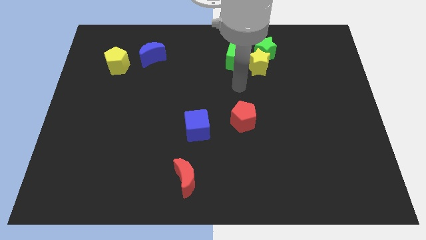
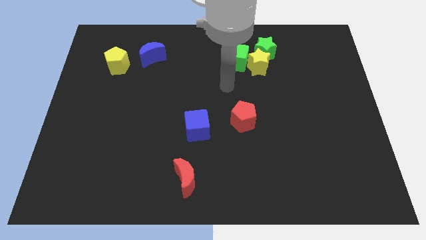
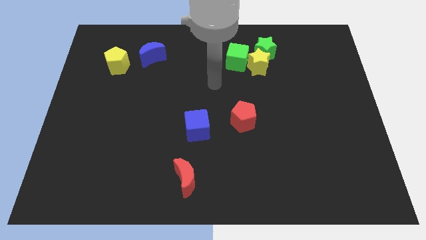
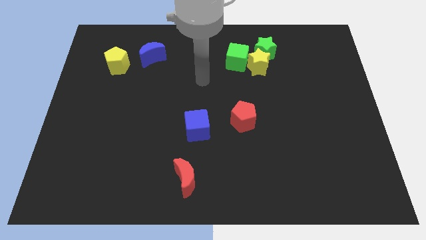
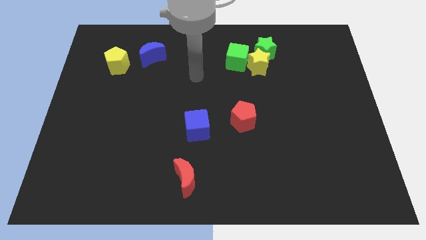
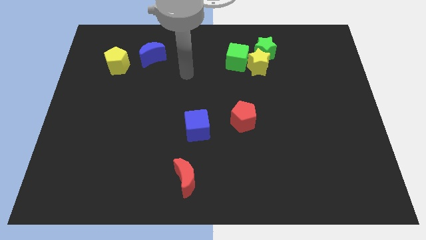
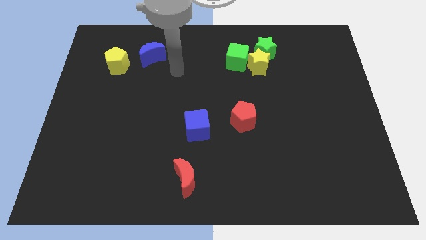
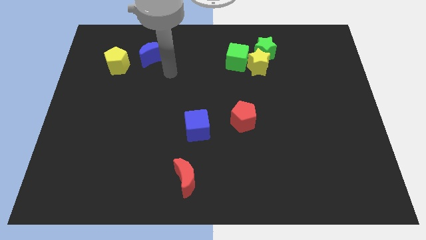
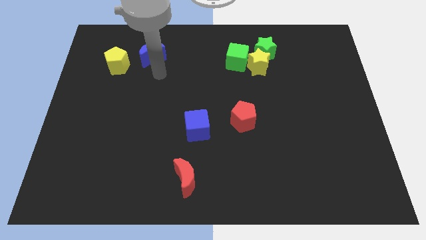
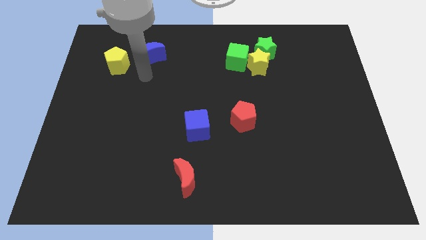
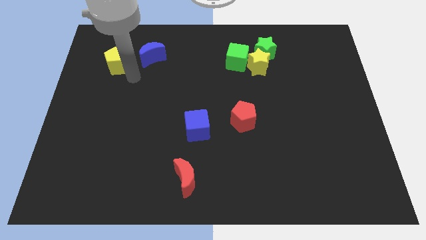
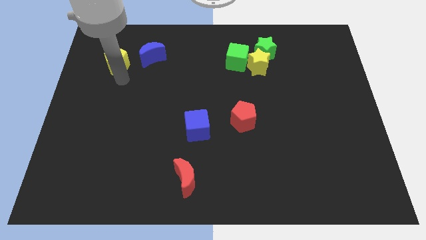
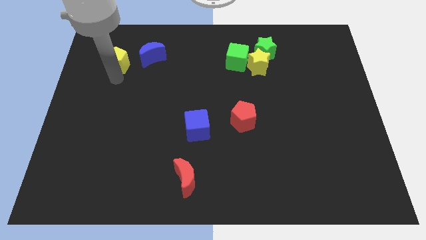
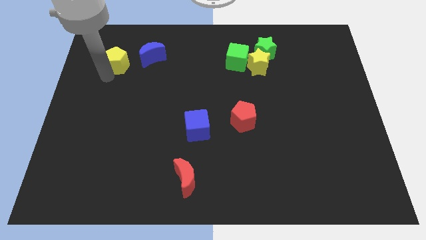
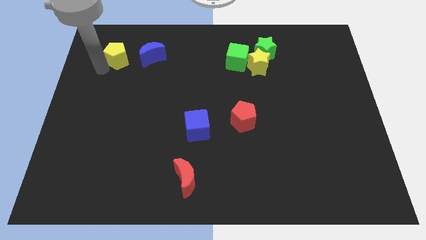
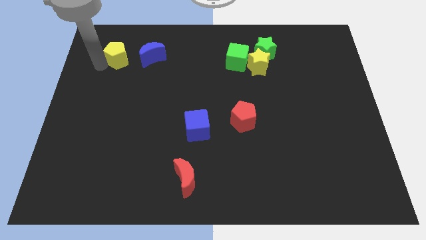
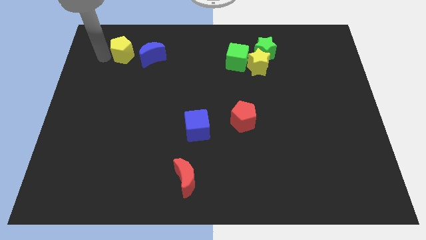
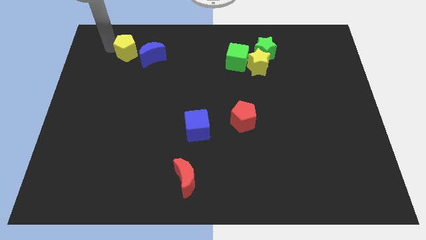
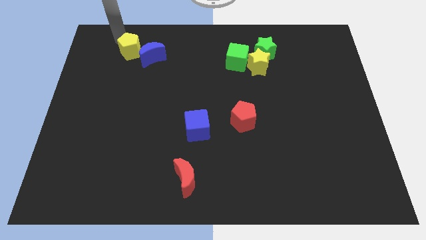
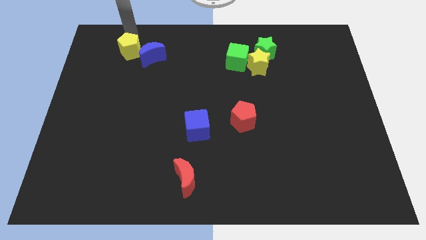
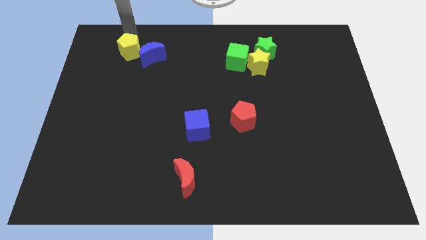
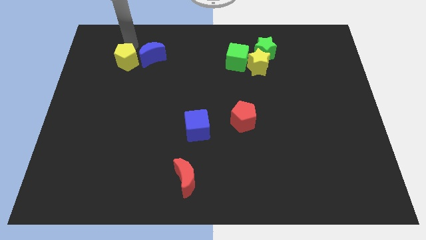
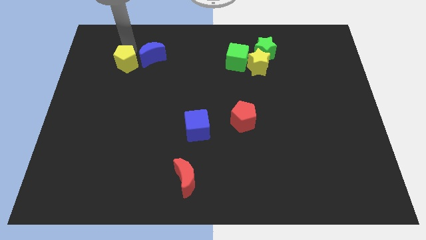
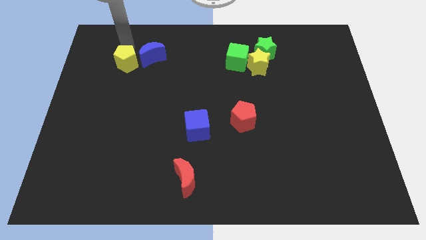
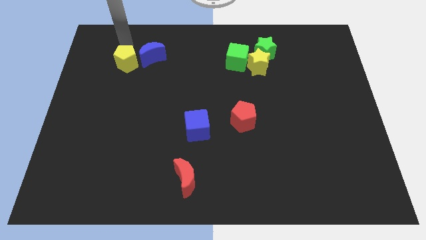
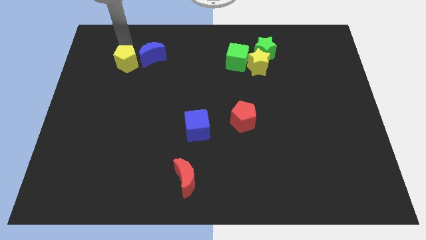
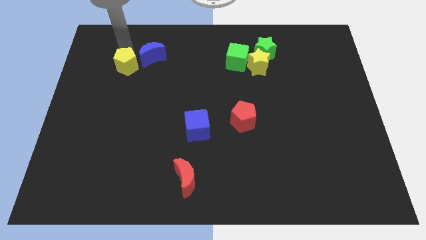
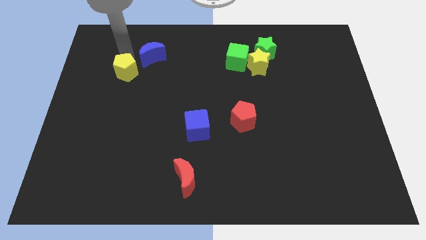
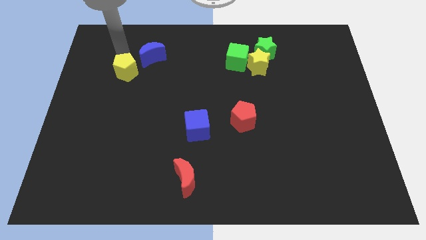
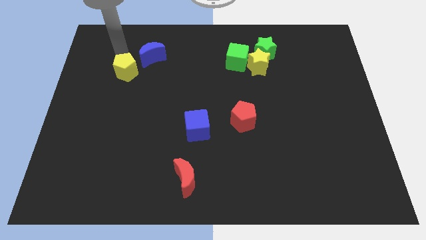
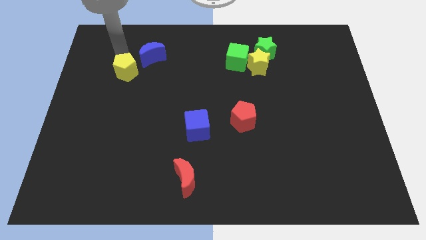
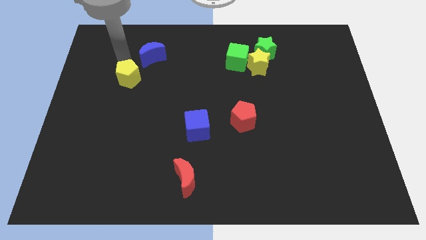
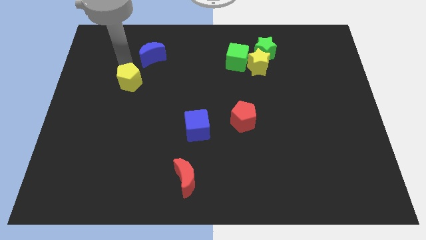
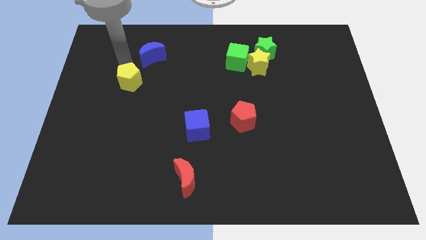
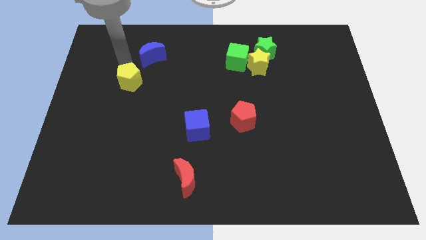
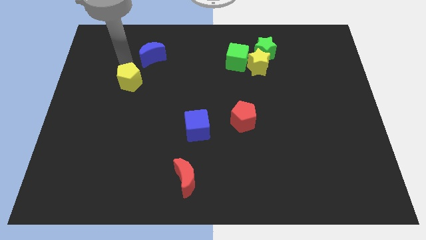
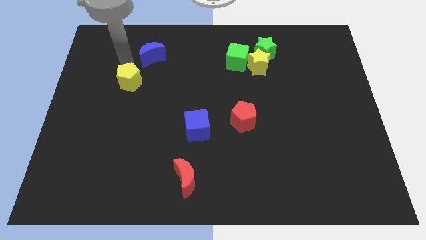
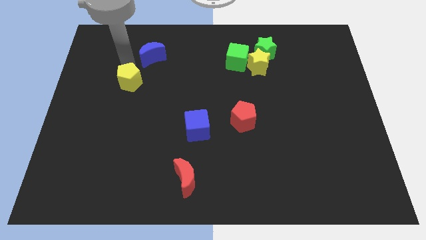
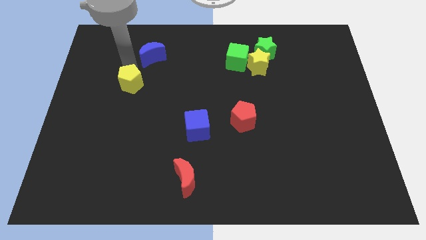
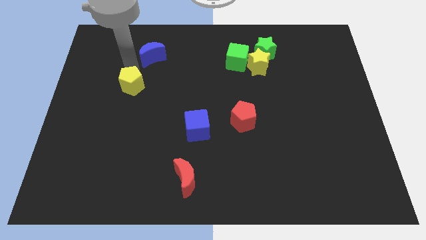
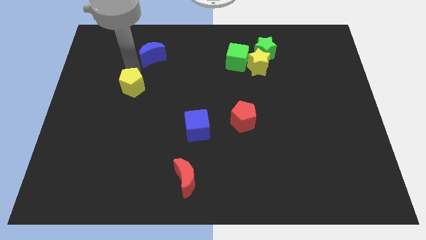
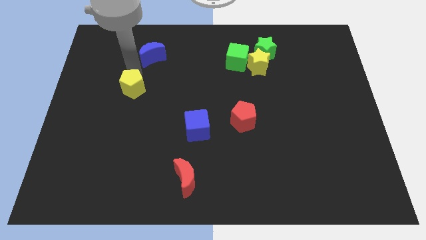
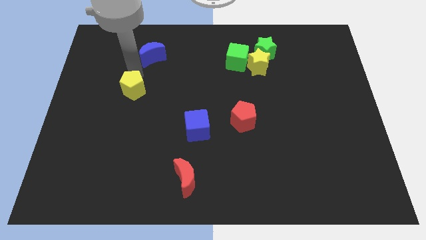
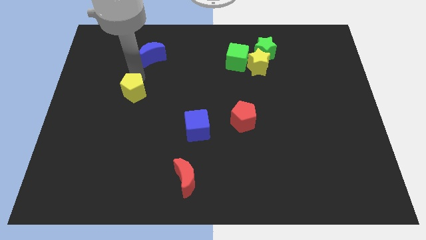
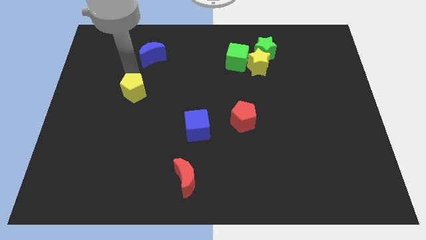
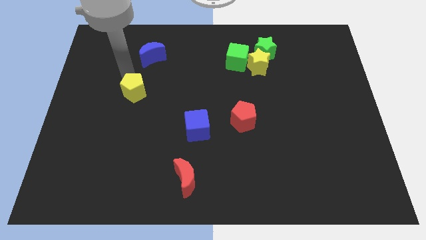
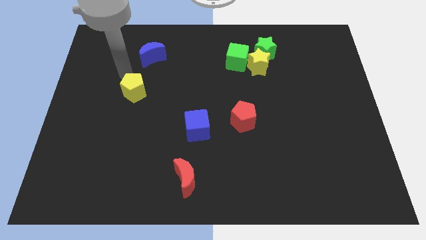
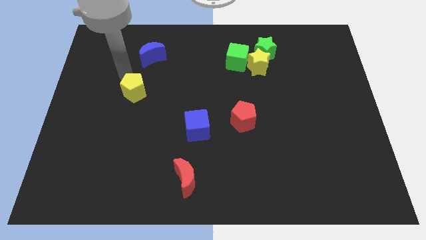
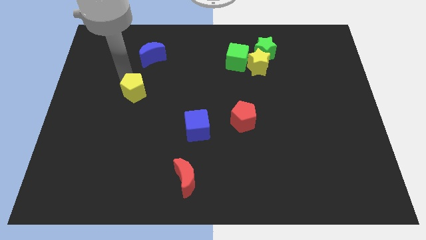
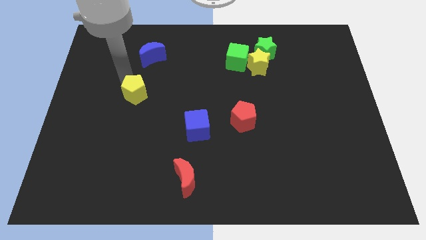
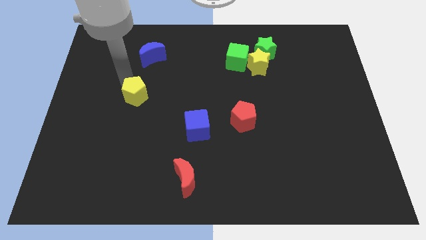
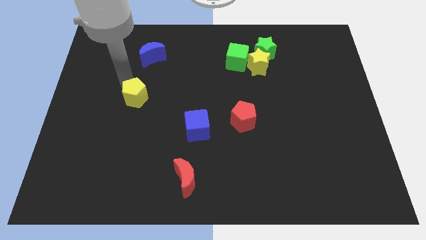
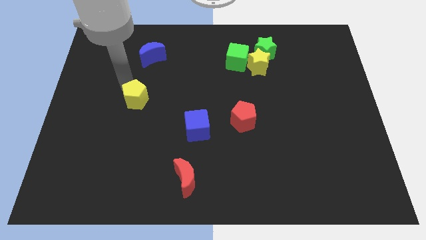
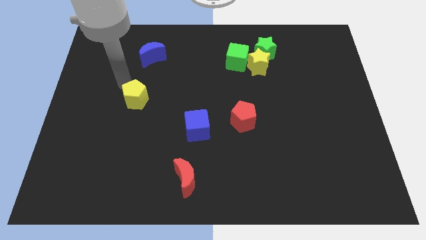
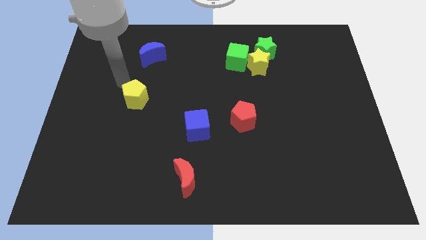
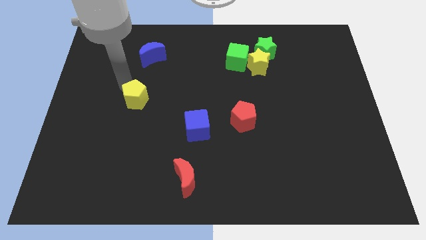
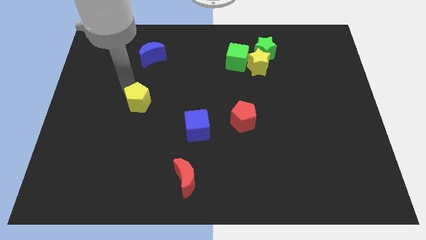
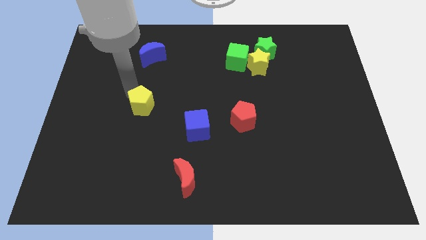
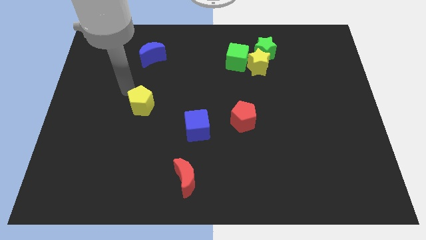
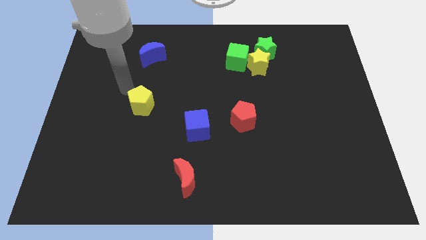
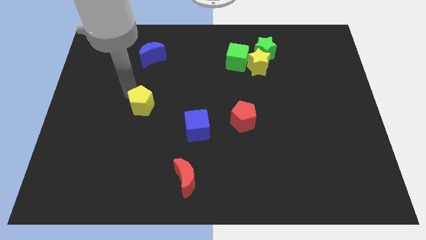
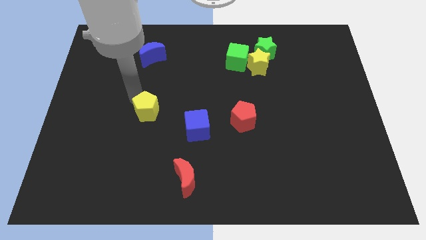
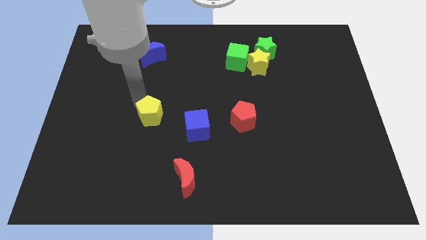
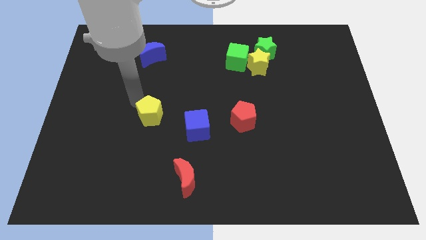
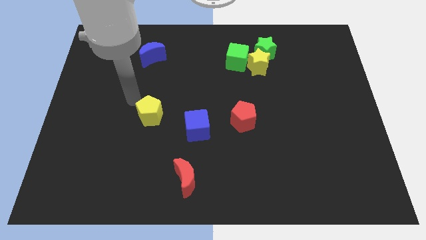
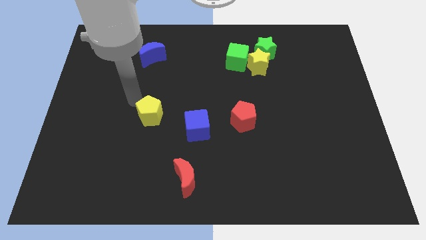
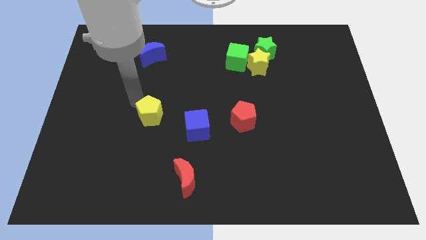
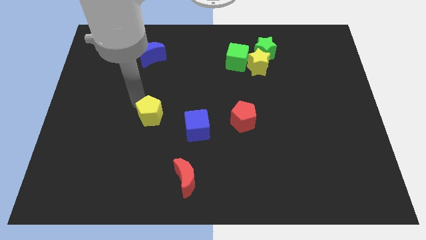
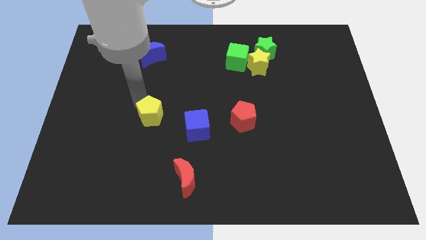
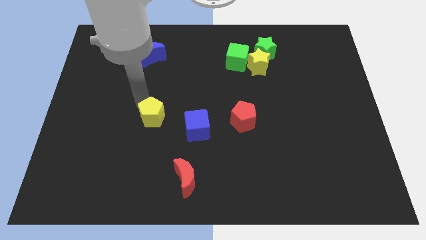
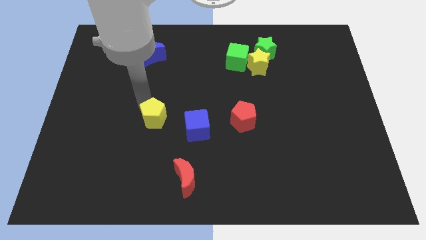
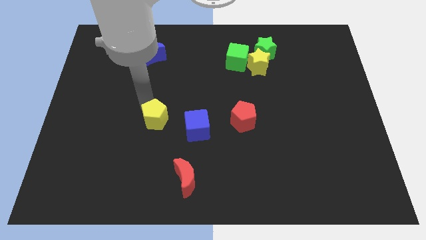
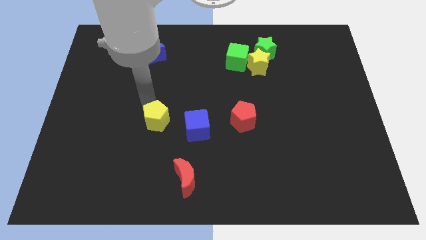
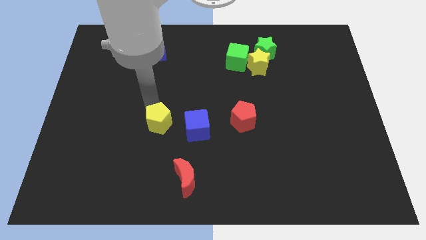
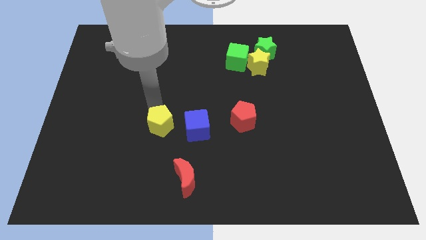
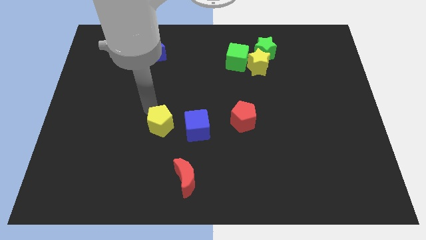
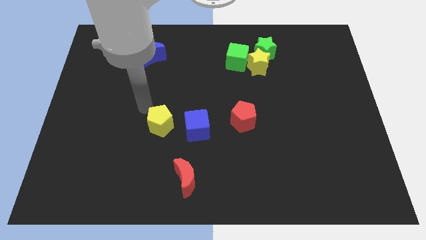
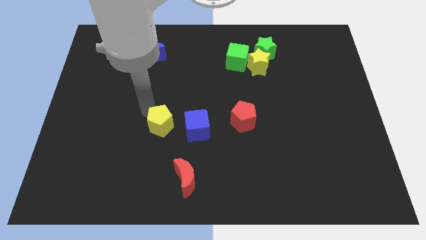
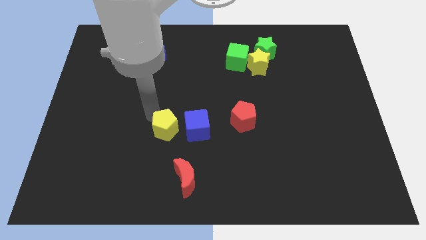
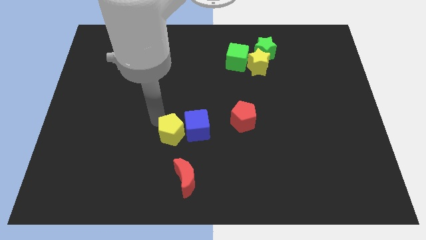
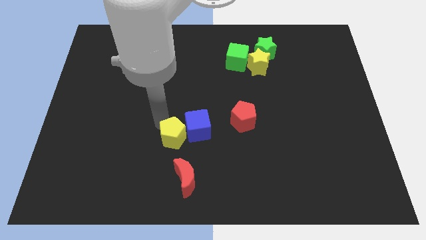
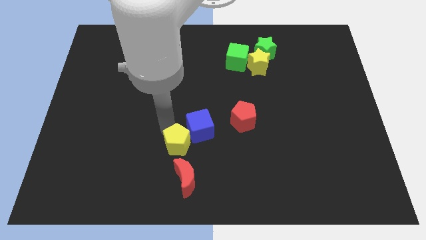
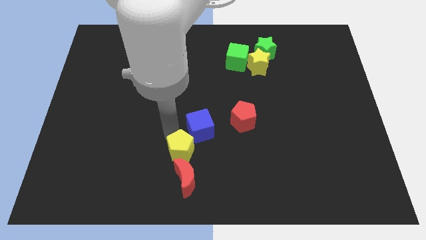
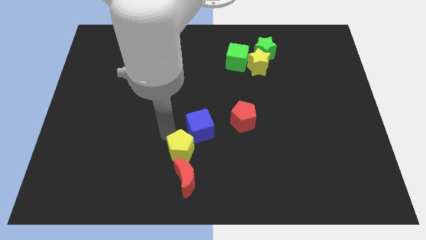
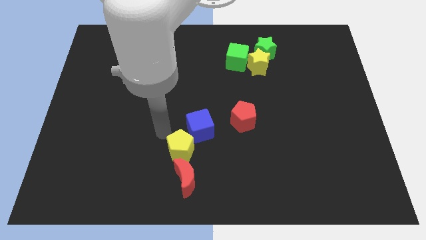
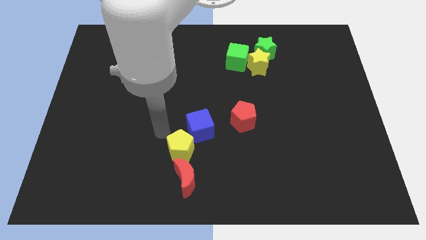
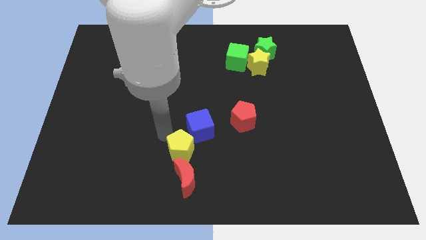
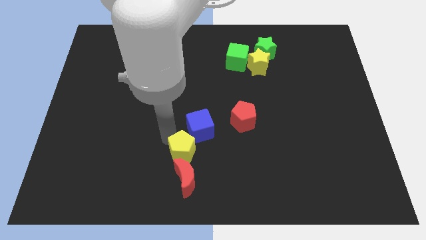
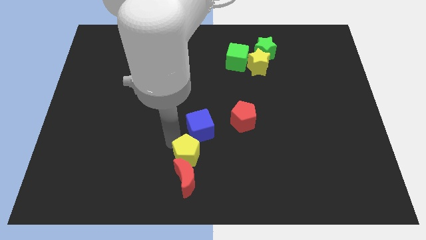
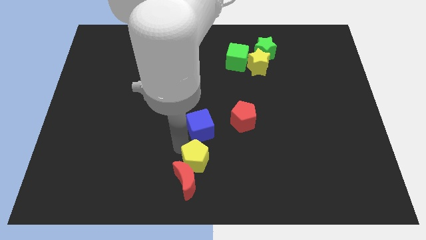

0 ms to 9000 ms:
slide the yellow pentagon to the bottom
